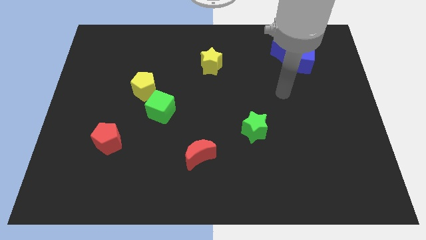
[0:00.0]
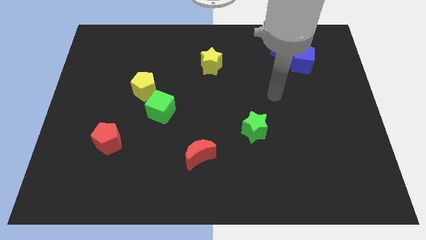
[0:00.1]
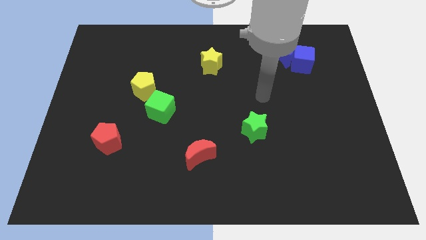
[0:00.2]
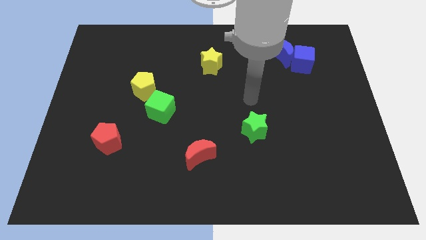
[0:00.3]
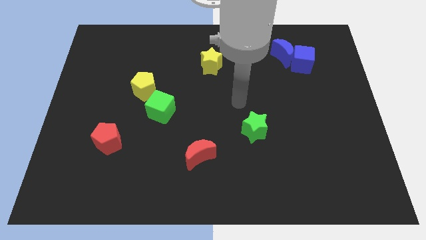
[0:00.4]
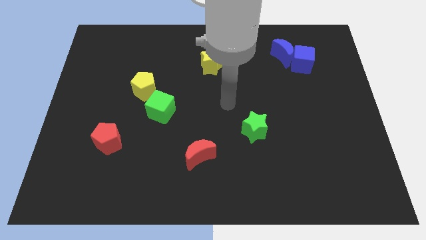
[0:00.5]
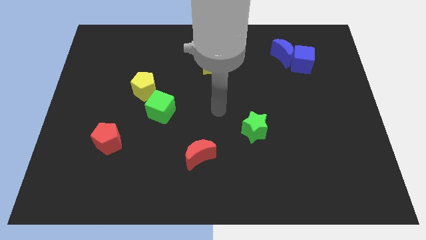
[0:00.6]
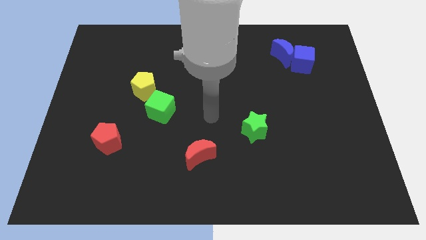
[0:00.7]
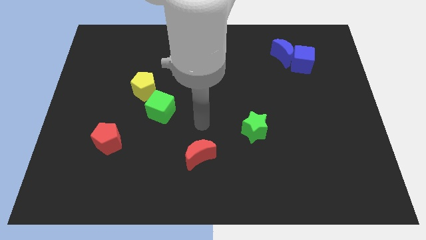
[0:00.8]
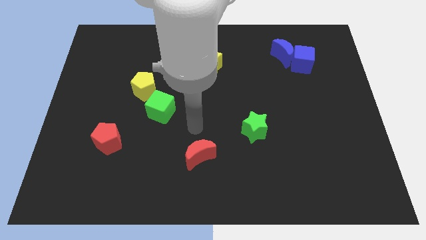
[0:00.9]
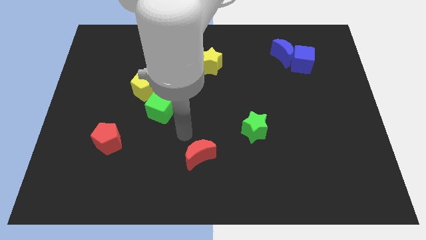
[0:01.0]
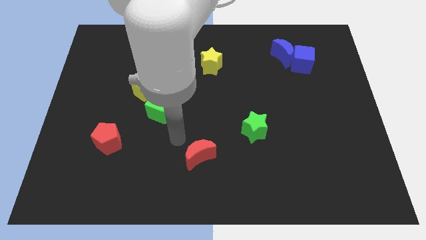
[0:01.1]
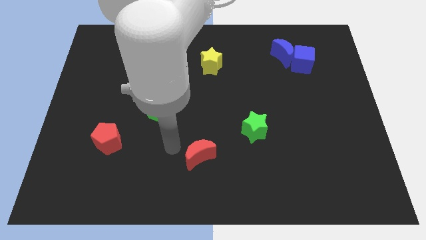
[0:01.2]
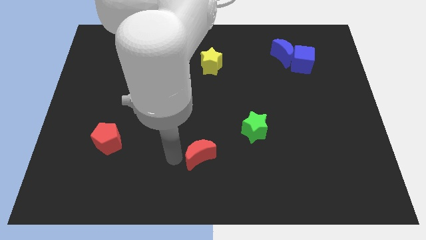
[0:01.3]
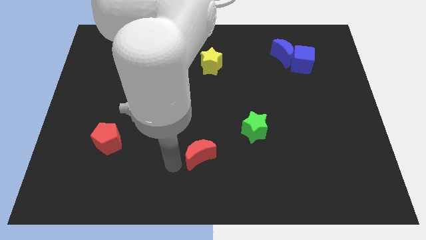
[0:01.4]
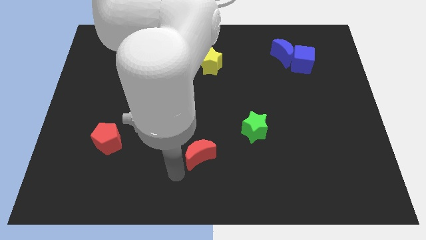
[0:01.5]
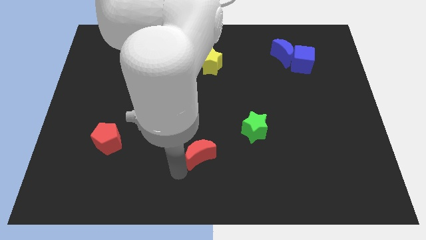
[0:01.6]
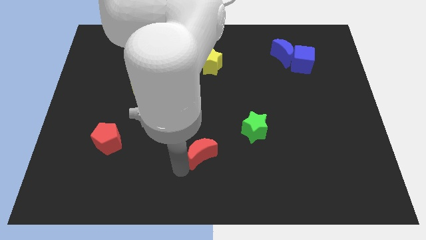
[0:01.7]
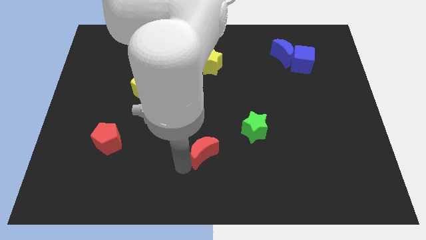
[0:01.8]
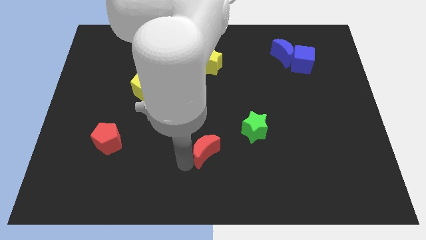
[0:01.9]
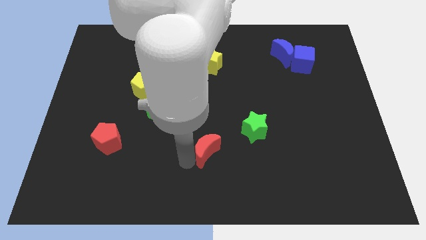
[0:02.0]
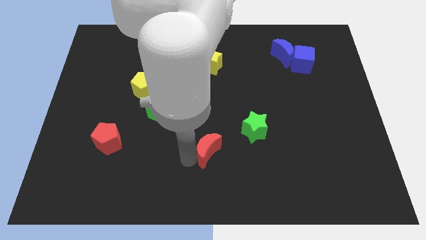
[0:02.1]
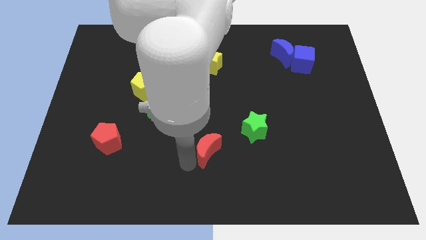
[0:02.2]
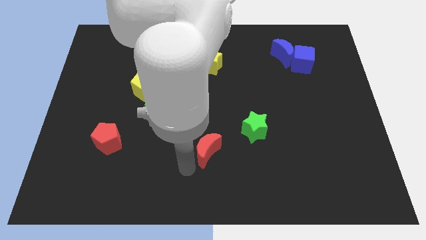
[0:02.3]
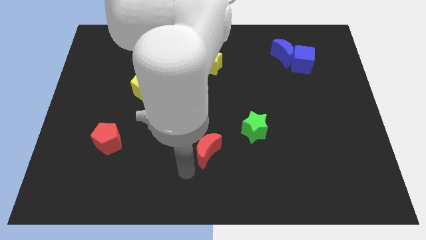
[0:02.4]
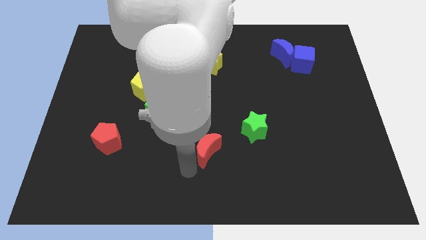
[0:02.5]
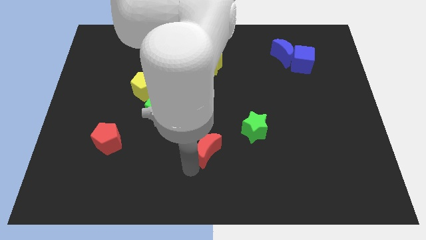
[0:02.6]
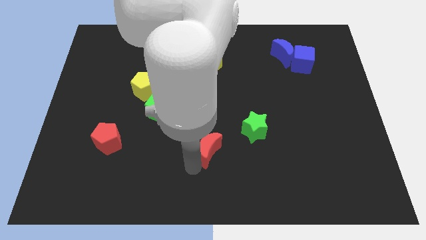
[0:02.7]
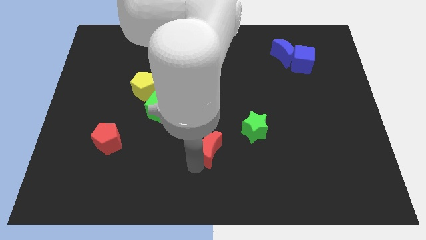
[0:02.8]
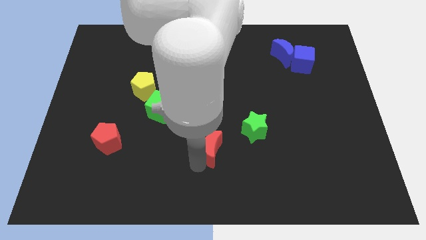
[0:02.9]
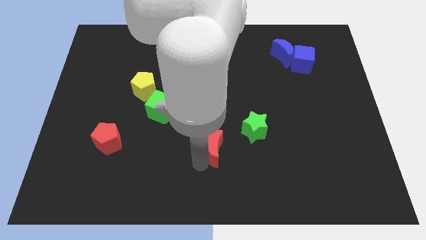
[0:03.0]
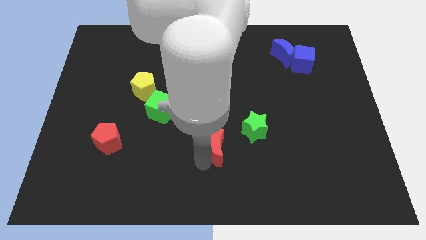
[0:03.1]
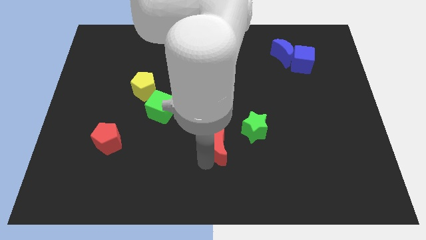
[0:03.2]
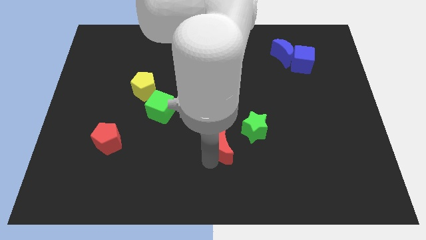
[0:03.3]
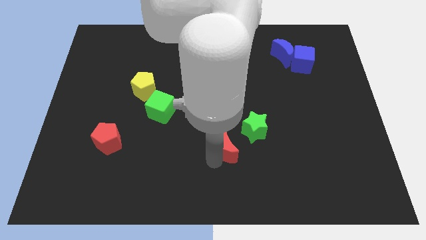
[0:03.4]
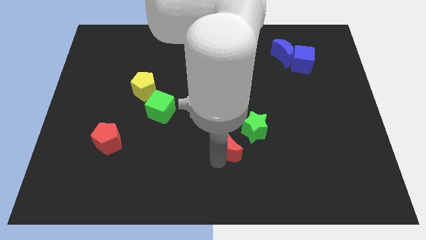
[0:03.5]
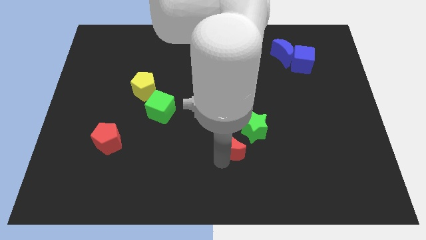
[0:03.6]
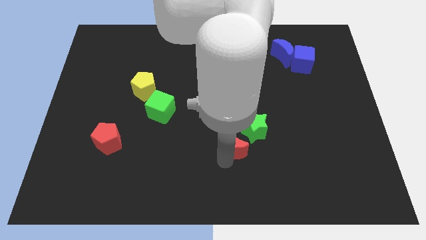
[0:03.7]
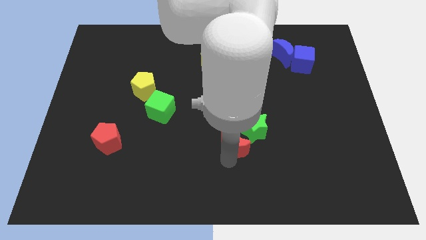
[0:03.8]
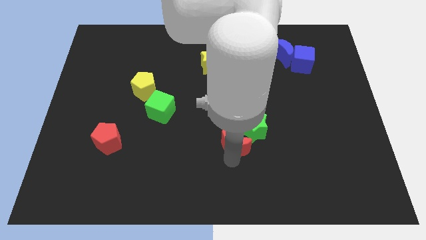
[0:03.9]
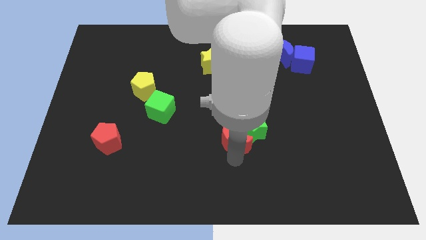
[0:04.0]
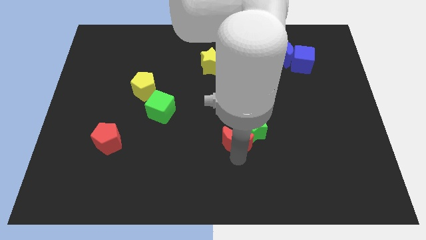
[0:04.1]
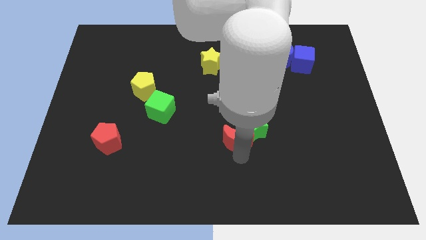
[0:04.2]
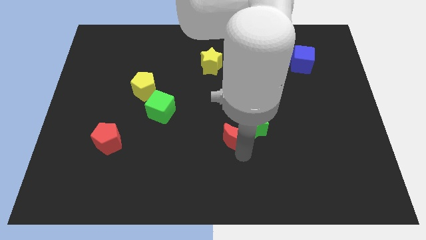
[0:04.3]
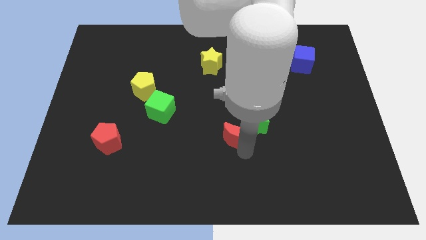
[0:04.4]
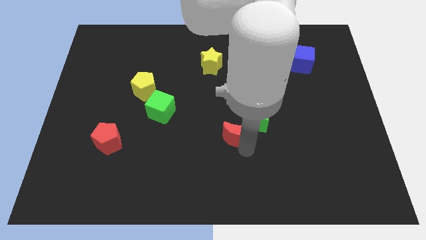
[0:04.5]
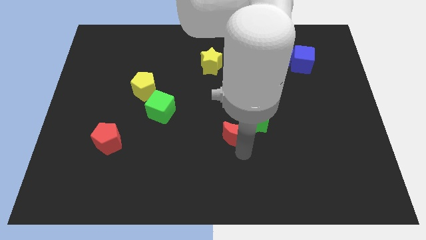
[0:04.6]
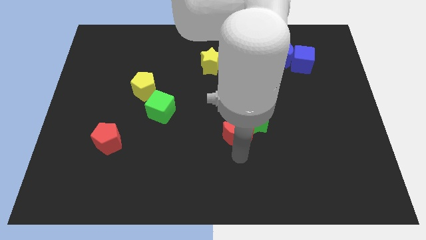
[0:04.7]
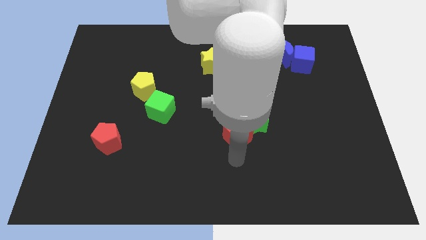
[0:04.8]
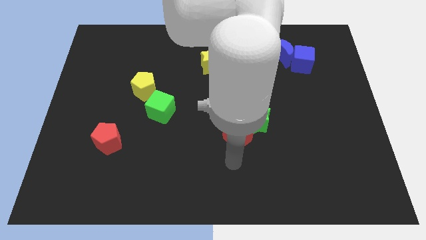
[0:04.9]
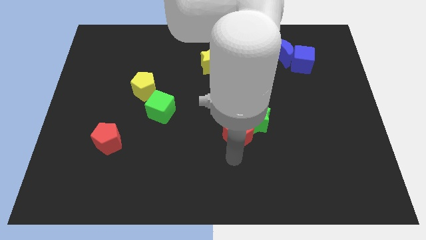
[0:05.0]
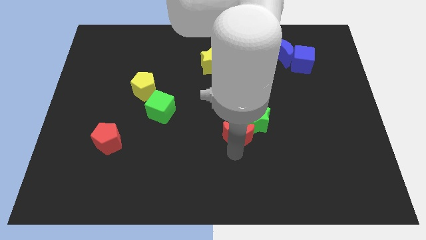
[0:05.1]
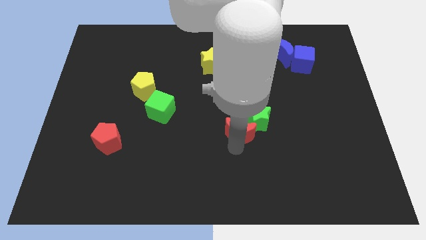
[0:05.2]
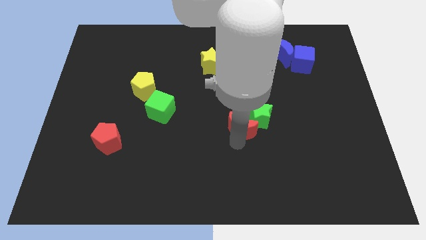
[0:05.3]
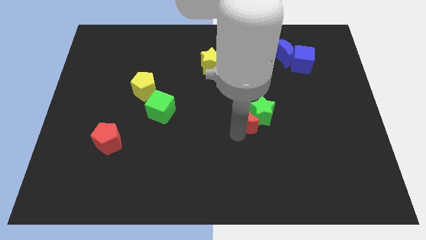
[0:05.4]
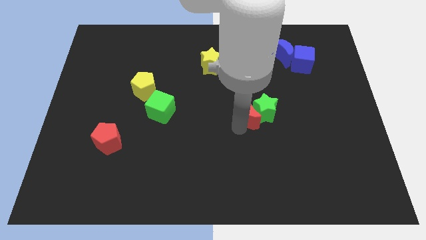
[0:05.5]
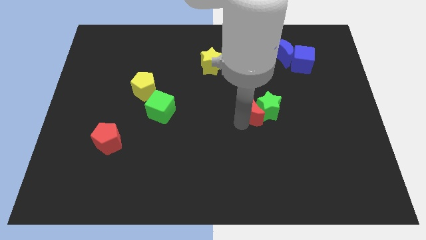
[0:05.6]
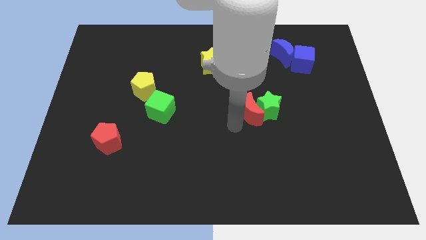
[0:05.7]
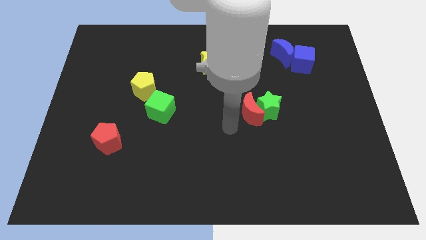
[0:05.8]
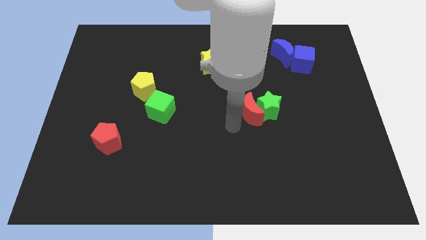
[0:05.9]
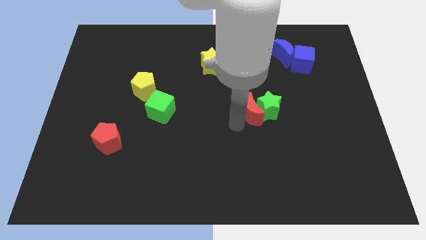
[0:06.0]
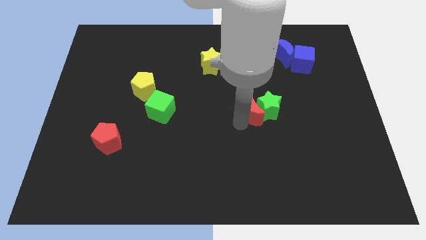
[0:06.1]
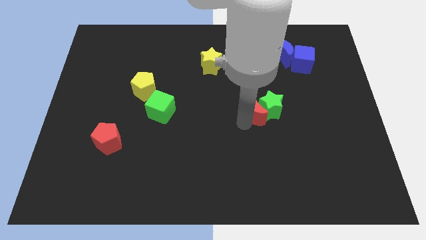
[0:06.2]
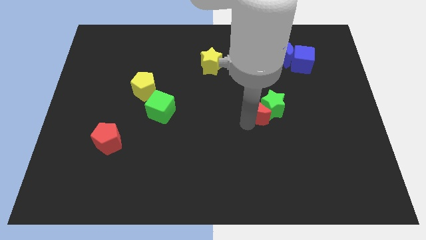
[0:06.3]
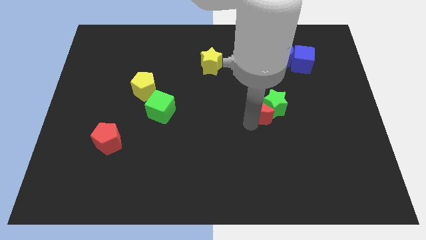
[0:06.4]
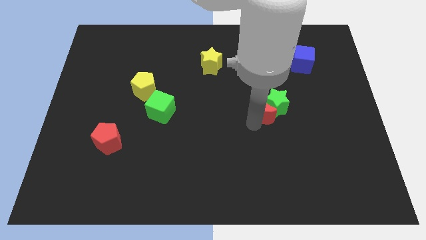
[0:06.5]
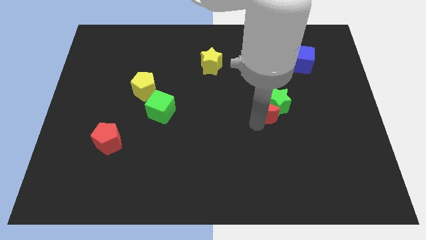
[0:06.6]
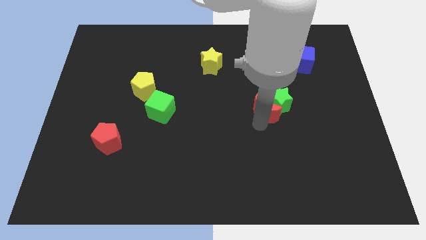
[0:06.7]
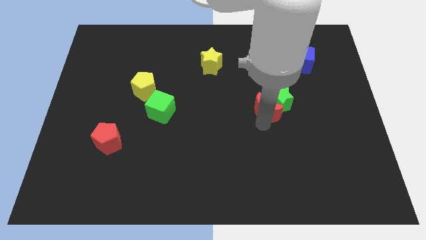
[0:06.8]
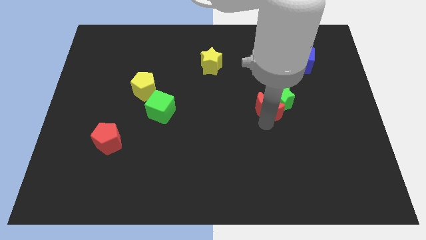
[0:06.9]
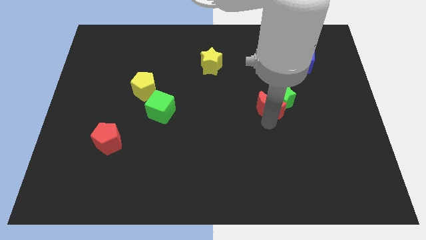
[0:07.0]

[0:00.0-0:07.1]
slide the red moon up and to the right diagonally

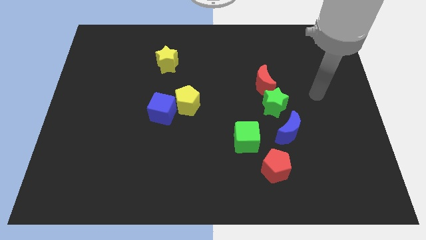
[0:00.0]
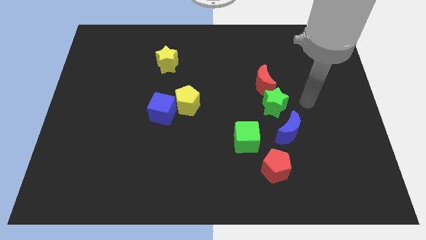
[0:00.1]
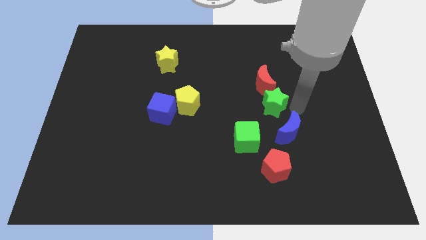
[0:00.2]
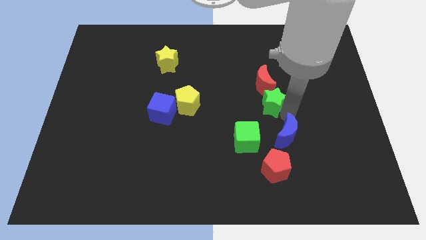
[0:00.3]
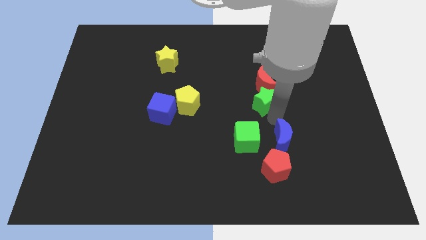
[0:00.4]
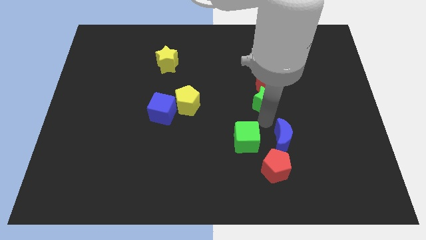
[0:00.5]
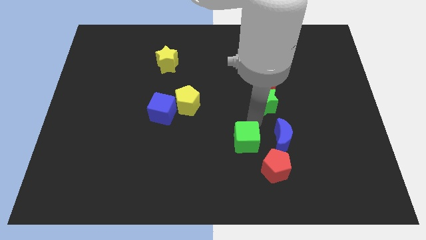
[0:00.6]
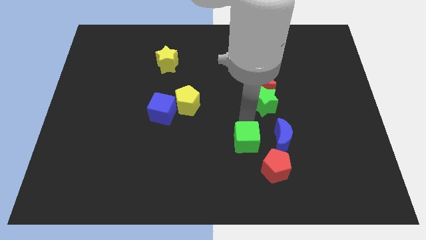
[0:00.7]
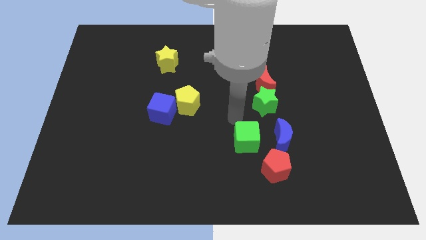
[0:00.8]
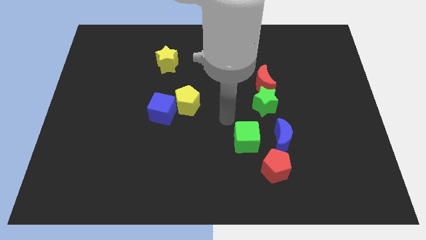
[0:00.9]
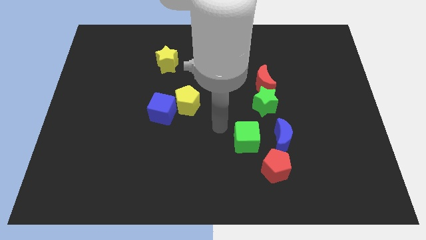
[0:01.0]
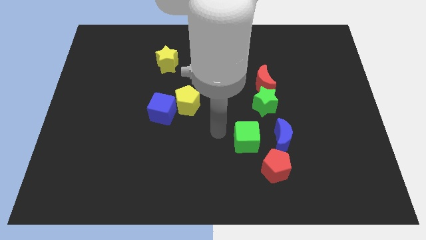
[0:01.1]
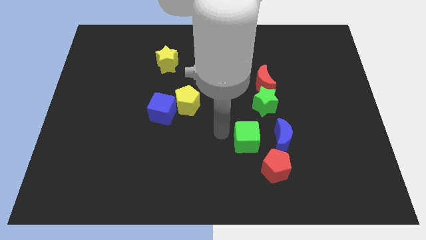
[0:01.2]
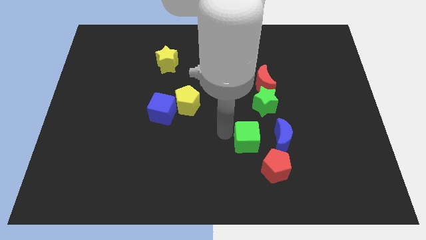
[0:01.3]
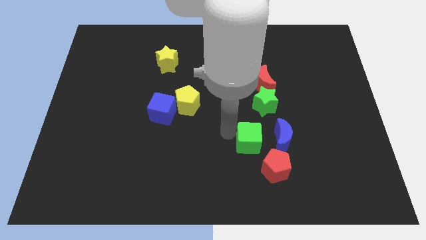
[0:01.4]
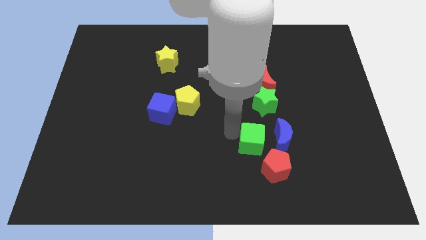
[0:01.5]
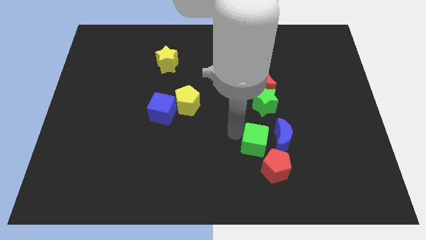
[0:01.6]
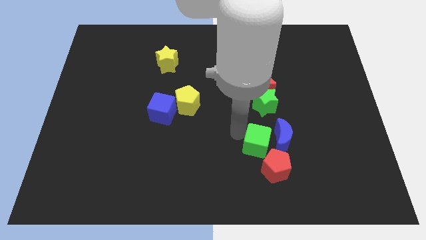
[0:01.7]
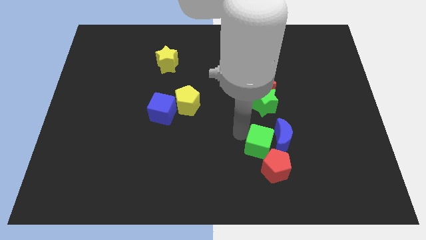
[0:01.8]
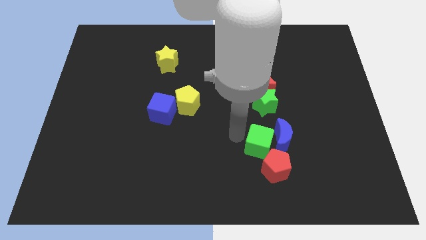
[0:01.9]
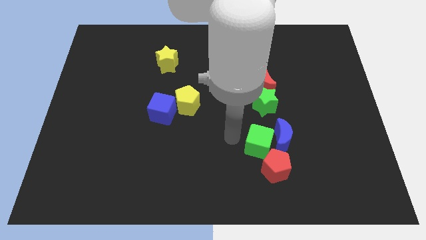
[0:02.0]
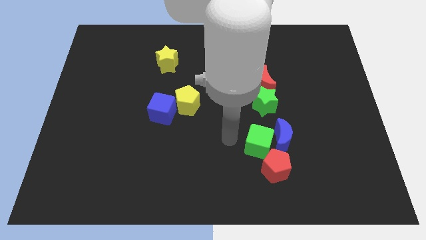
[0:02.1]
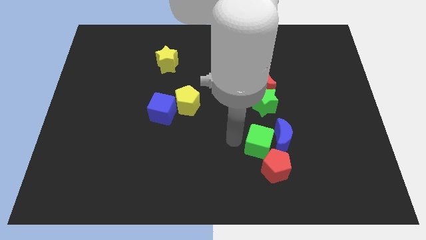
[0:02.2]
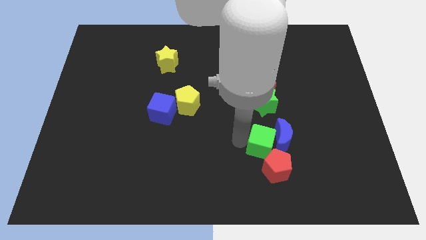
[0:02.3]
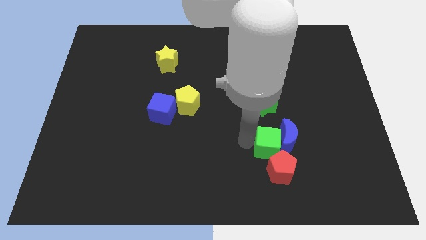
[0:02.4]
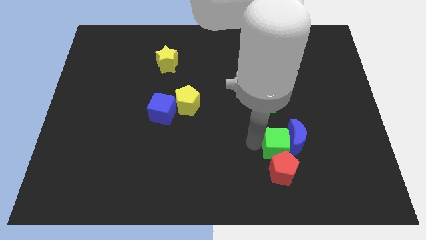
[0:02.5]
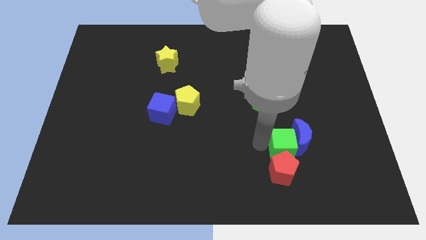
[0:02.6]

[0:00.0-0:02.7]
push the green cube a bit right
